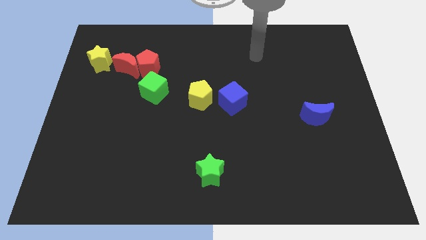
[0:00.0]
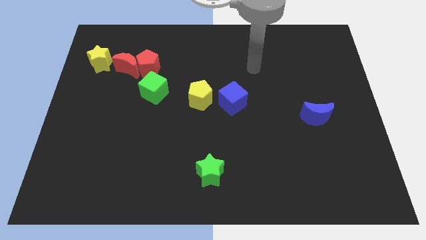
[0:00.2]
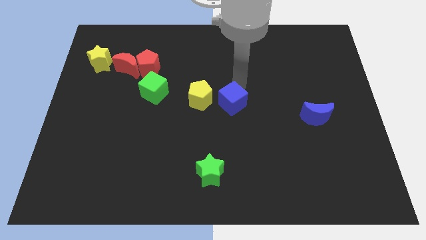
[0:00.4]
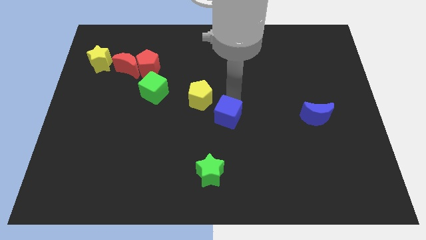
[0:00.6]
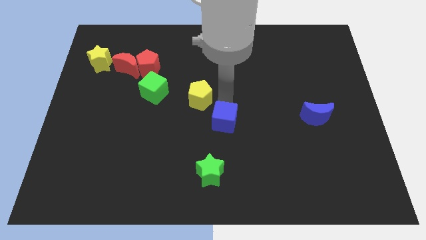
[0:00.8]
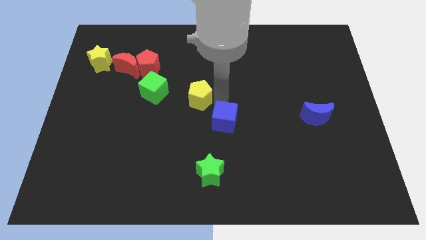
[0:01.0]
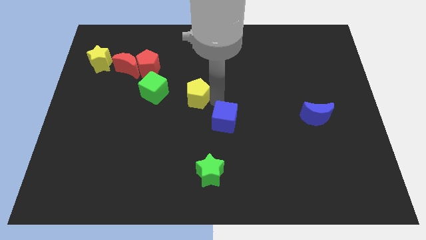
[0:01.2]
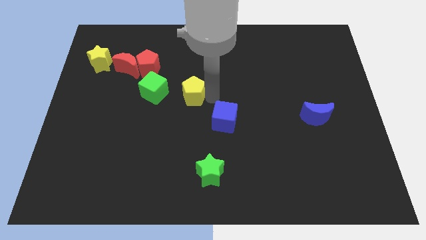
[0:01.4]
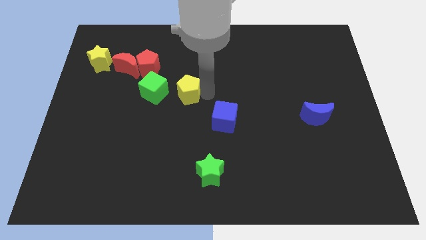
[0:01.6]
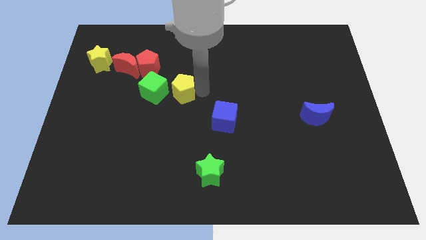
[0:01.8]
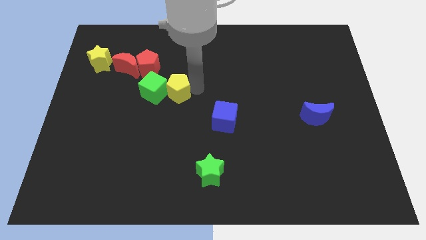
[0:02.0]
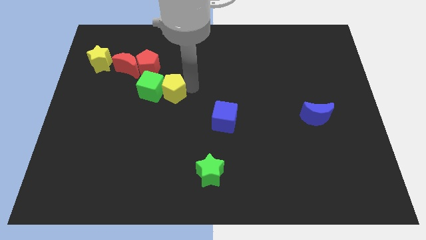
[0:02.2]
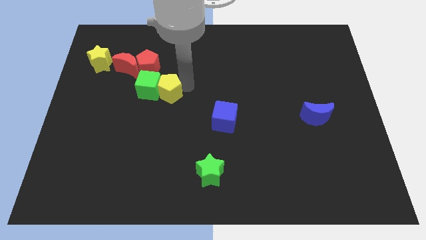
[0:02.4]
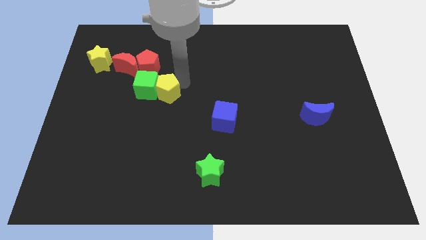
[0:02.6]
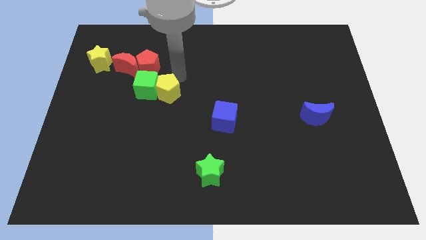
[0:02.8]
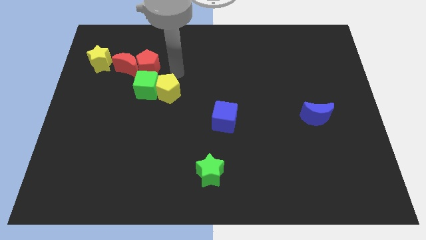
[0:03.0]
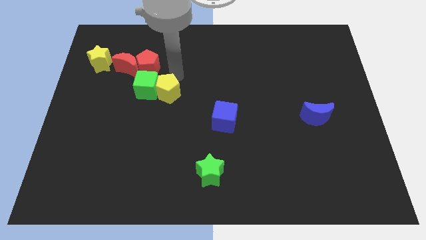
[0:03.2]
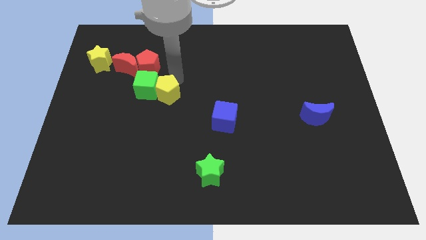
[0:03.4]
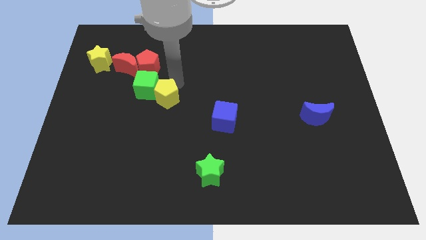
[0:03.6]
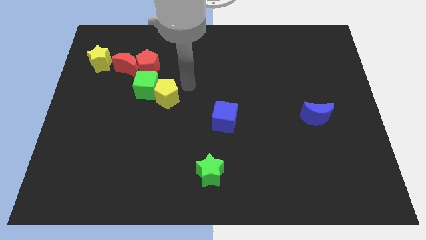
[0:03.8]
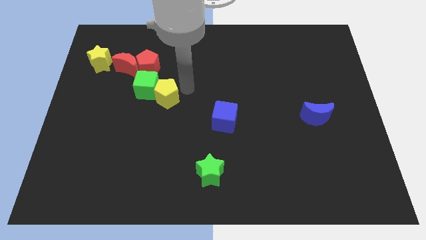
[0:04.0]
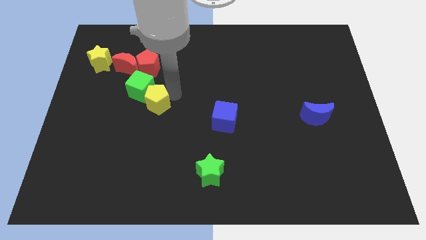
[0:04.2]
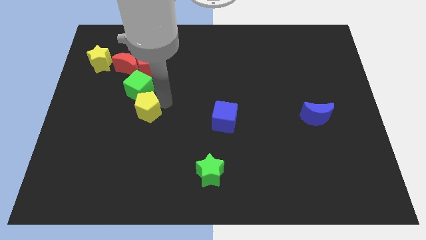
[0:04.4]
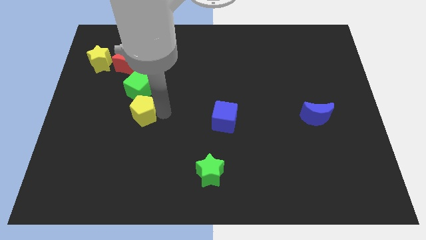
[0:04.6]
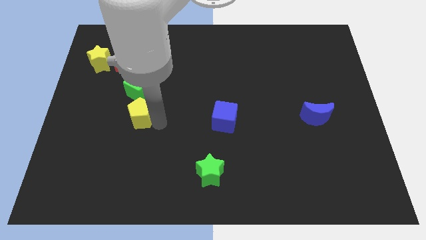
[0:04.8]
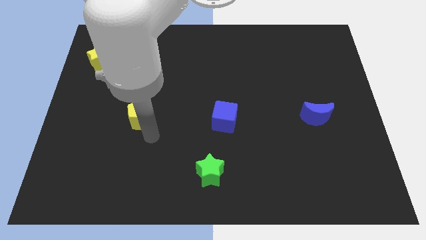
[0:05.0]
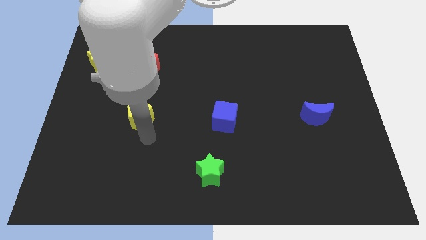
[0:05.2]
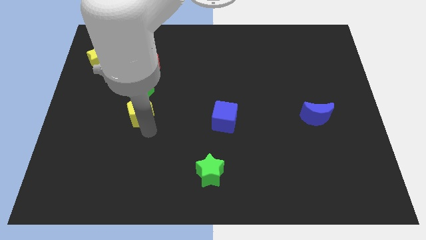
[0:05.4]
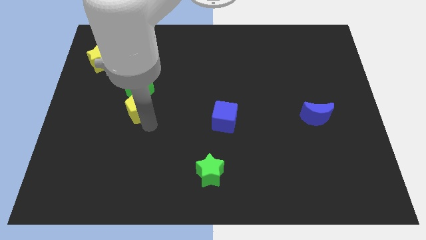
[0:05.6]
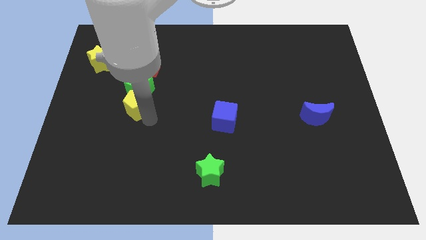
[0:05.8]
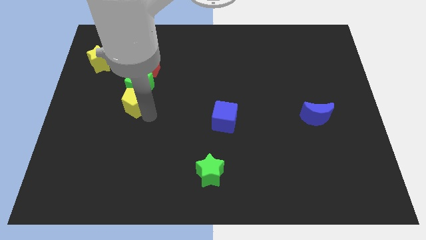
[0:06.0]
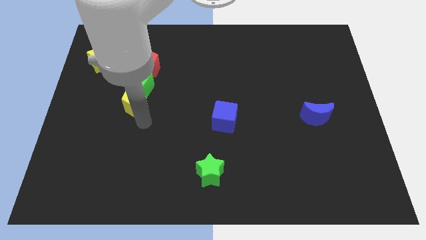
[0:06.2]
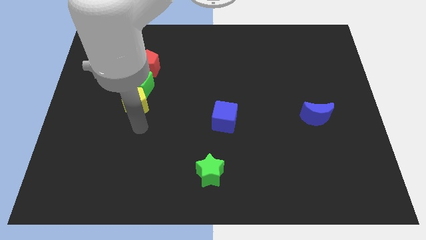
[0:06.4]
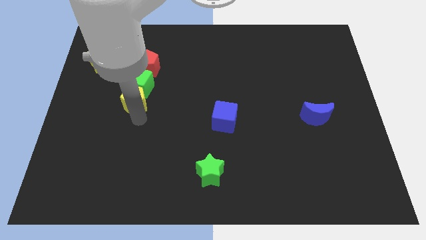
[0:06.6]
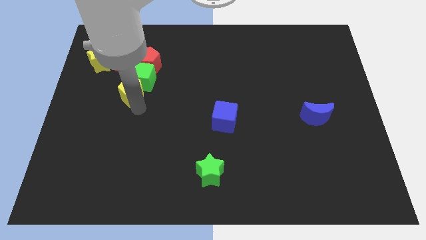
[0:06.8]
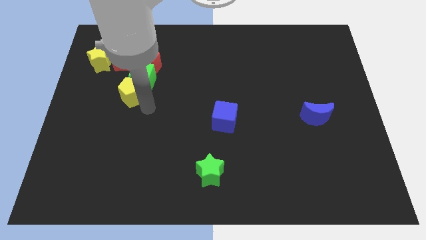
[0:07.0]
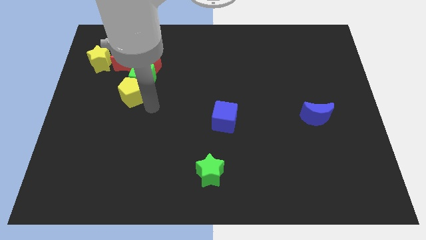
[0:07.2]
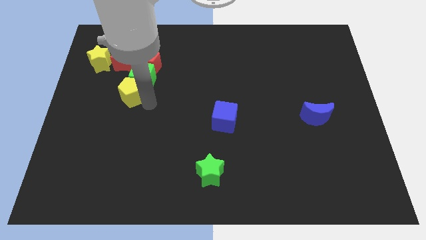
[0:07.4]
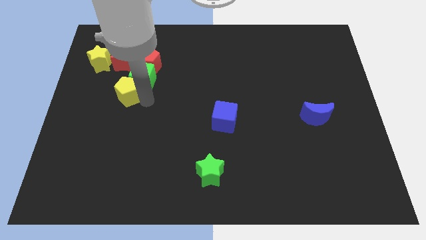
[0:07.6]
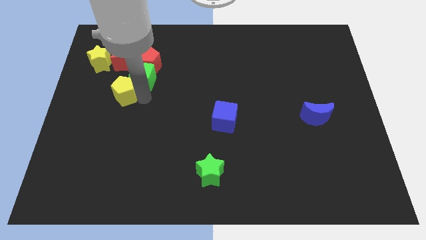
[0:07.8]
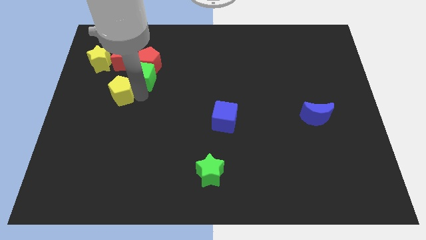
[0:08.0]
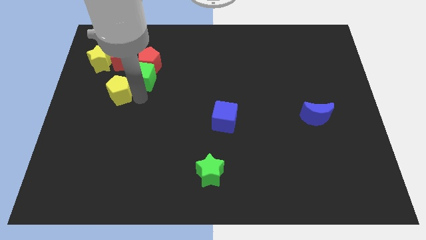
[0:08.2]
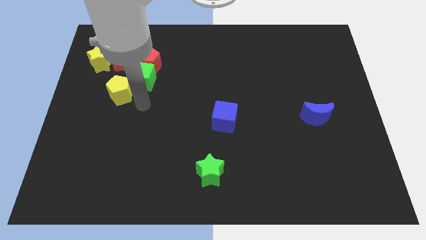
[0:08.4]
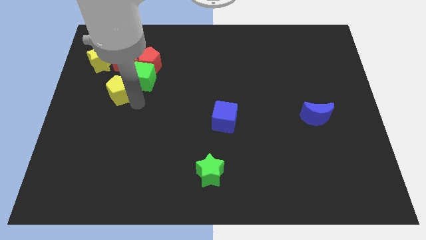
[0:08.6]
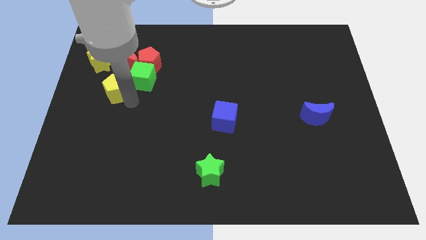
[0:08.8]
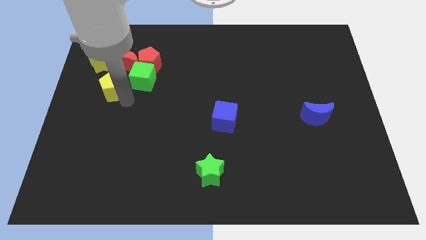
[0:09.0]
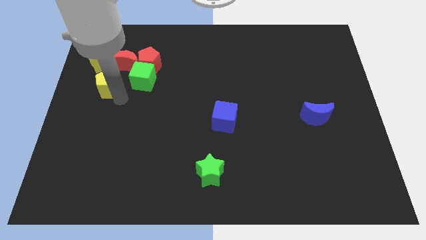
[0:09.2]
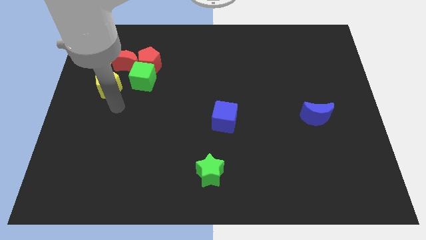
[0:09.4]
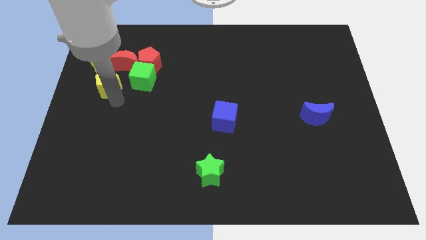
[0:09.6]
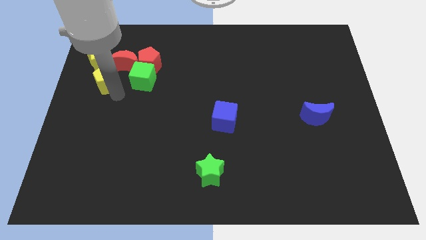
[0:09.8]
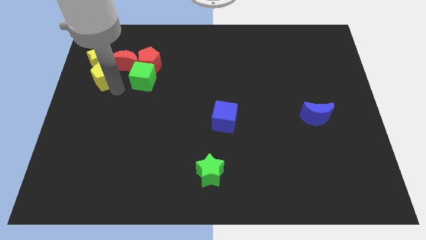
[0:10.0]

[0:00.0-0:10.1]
move the yellow pentagon next to the yellow star

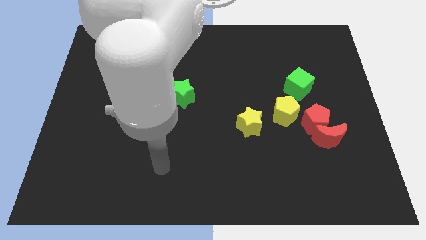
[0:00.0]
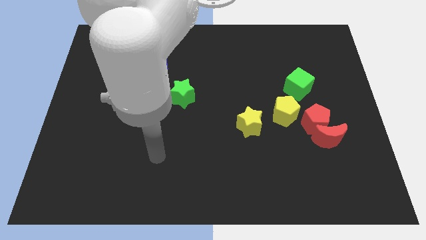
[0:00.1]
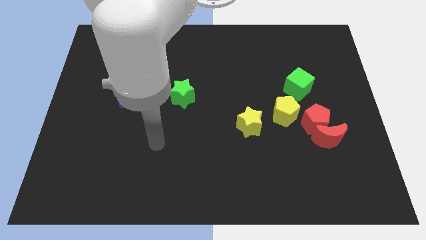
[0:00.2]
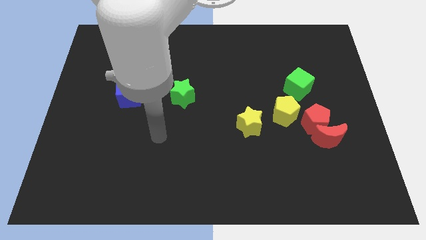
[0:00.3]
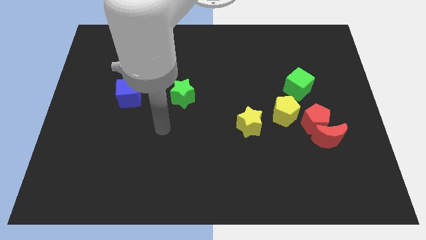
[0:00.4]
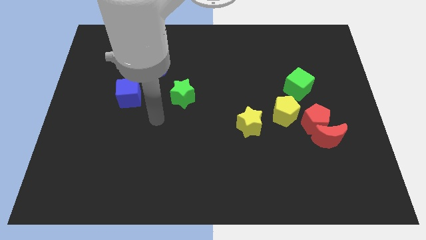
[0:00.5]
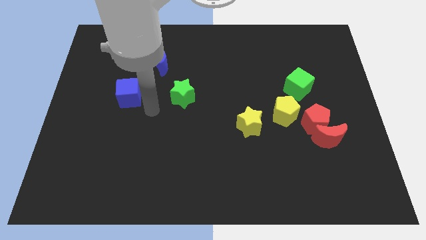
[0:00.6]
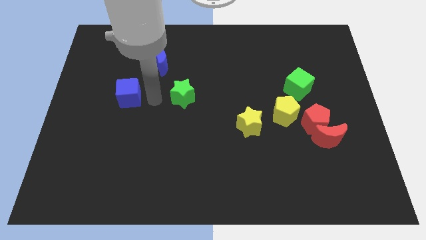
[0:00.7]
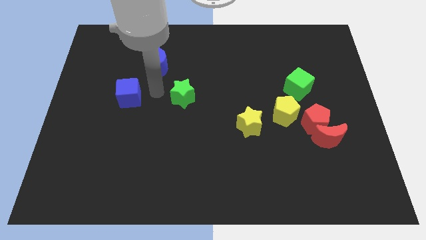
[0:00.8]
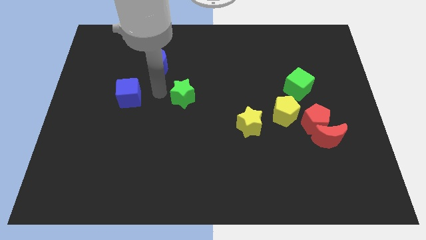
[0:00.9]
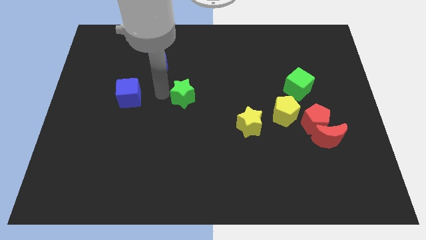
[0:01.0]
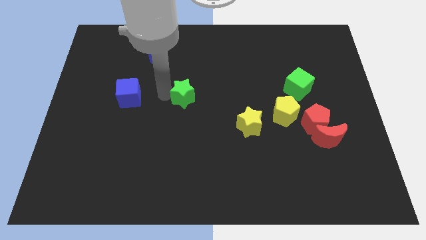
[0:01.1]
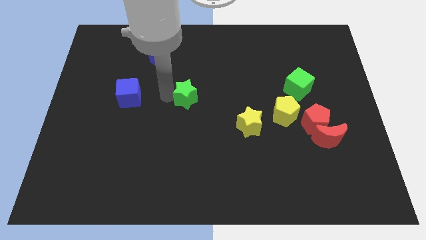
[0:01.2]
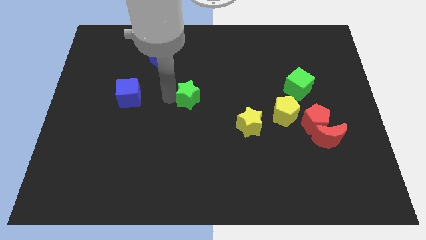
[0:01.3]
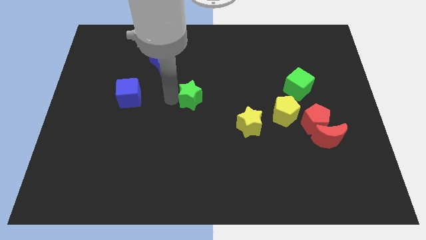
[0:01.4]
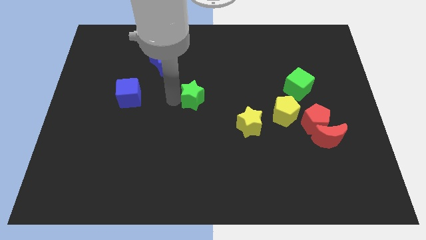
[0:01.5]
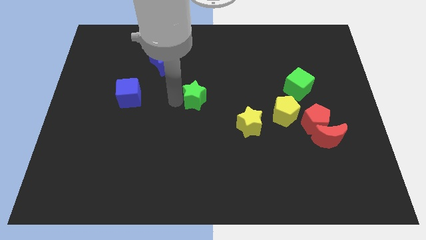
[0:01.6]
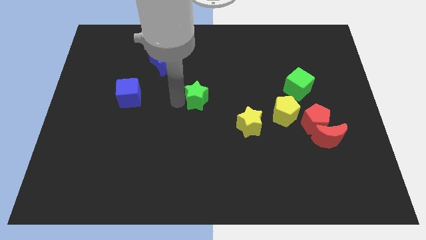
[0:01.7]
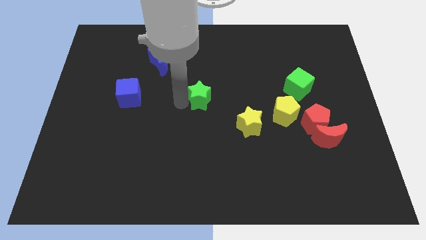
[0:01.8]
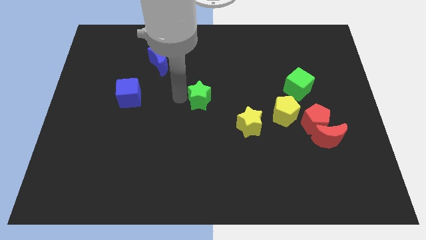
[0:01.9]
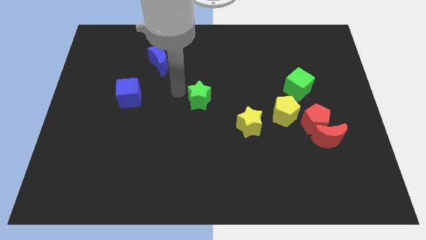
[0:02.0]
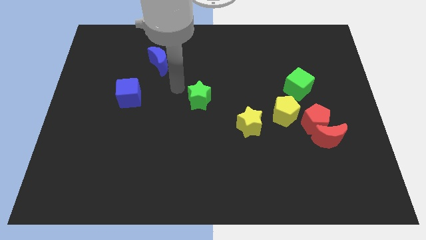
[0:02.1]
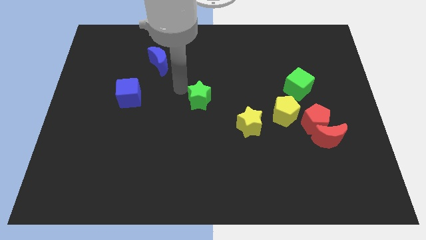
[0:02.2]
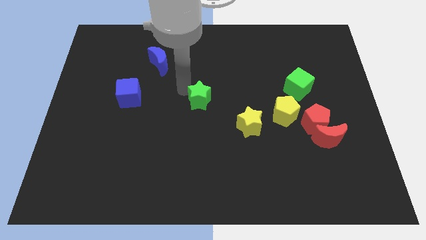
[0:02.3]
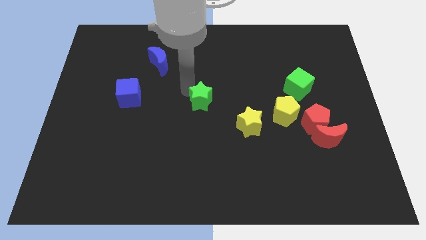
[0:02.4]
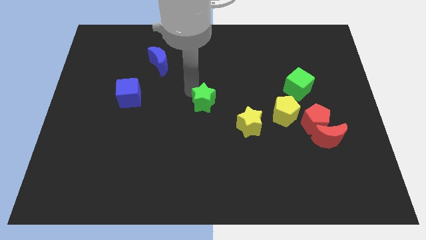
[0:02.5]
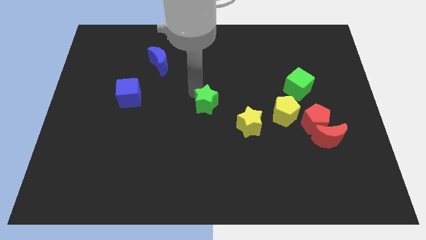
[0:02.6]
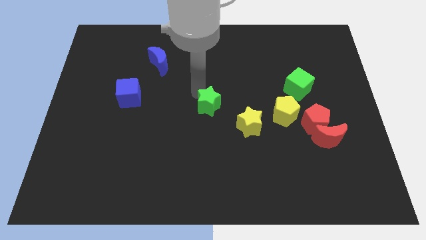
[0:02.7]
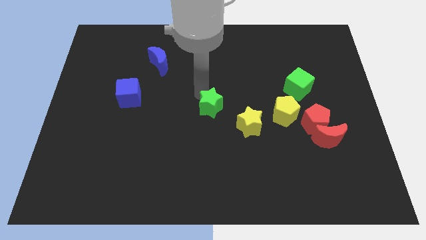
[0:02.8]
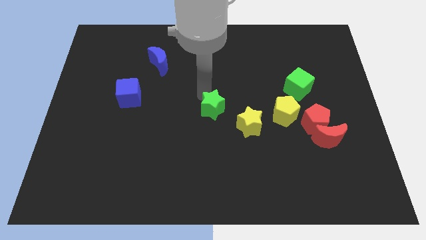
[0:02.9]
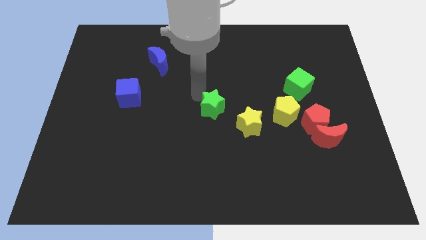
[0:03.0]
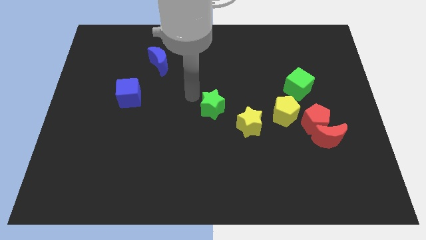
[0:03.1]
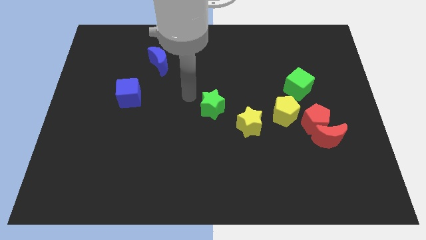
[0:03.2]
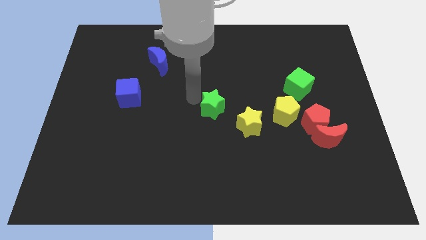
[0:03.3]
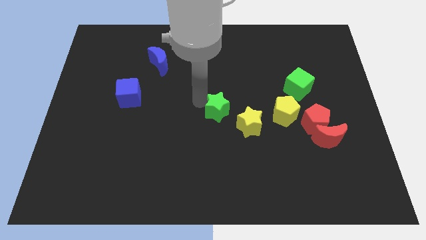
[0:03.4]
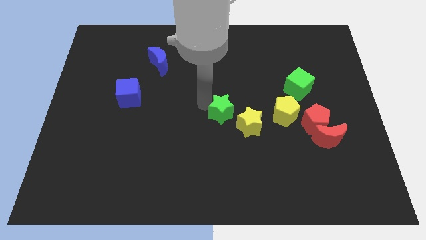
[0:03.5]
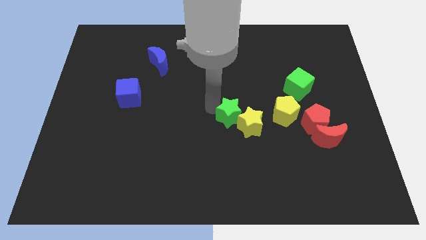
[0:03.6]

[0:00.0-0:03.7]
push the green star close to the yellow star
